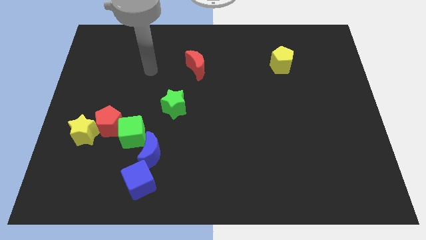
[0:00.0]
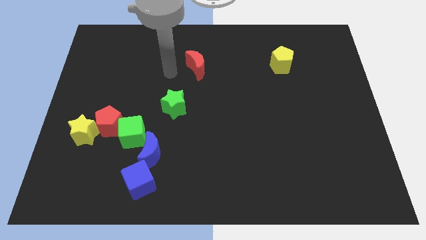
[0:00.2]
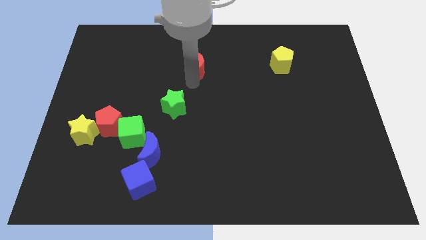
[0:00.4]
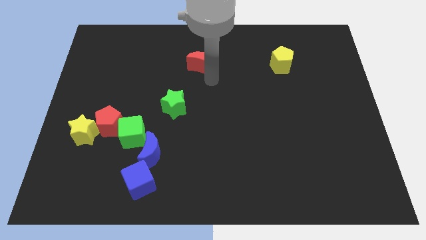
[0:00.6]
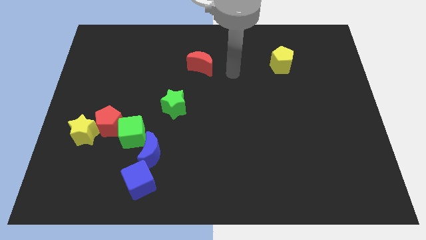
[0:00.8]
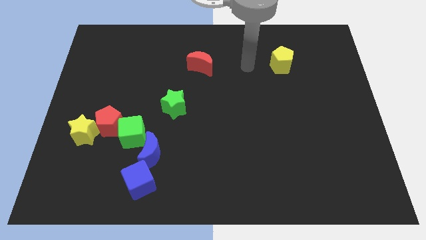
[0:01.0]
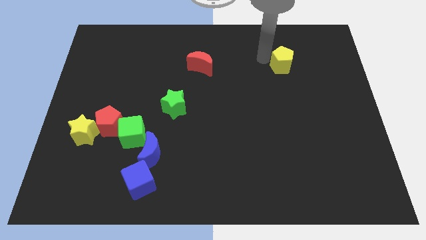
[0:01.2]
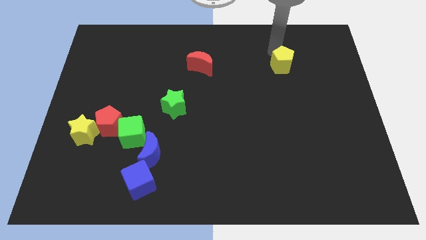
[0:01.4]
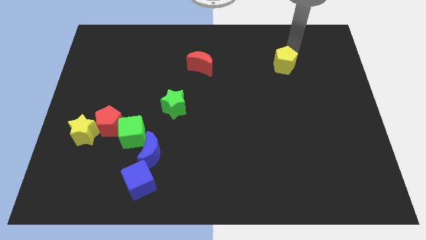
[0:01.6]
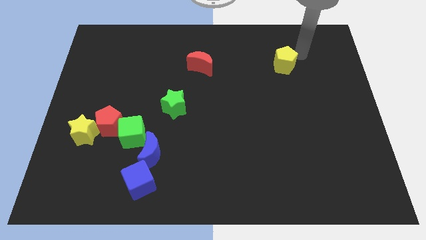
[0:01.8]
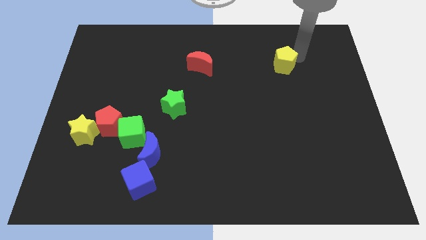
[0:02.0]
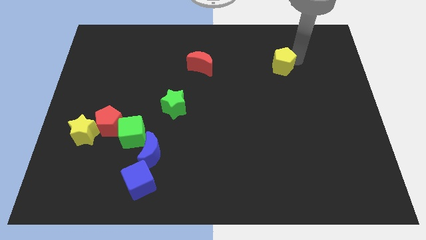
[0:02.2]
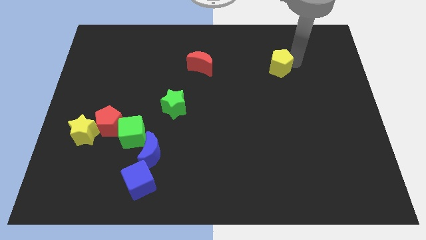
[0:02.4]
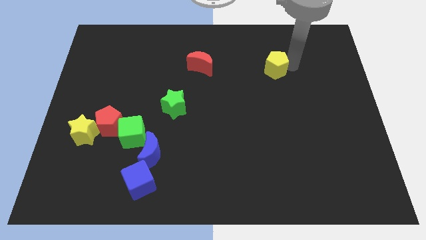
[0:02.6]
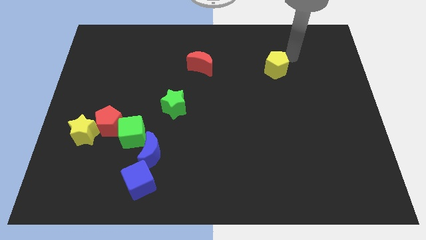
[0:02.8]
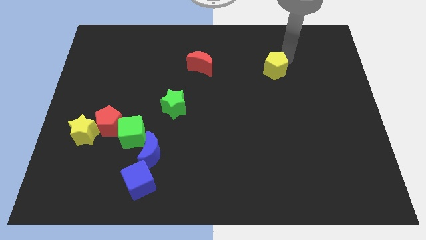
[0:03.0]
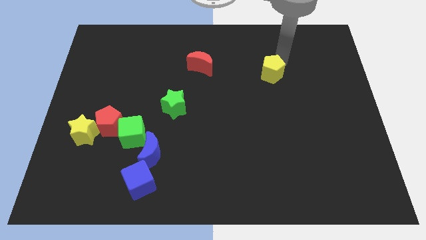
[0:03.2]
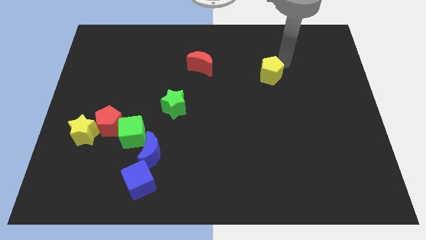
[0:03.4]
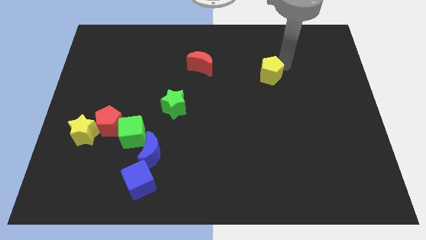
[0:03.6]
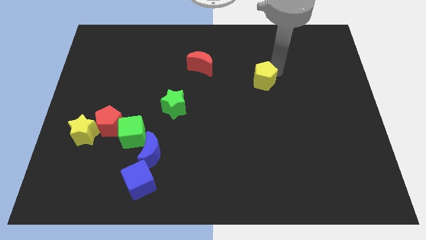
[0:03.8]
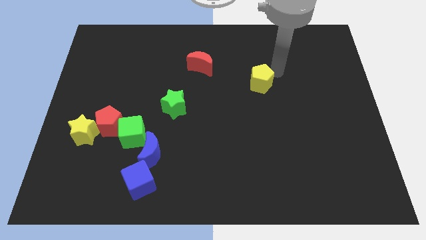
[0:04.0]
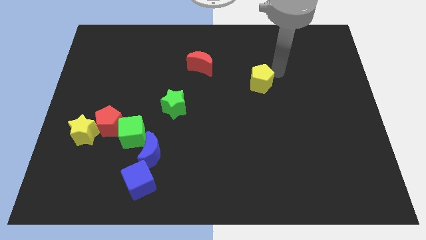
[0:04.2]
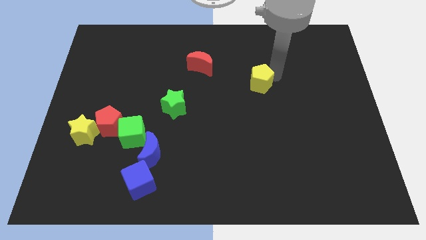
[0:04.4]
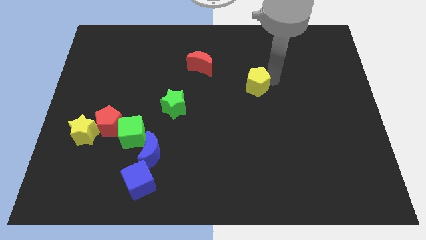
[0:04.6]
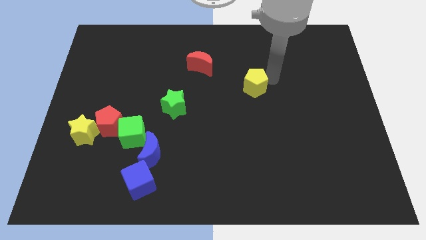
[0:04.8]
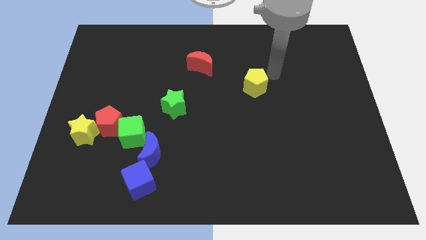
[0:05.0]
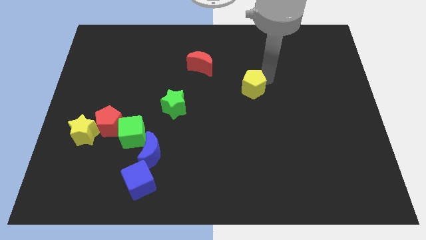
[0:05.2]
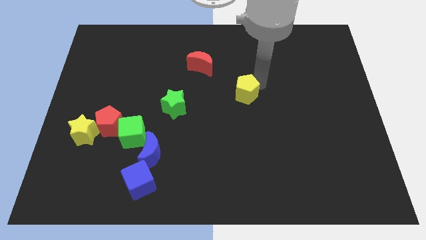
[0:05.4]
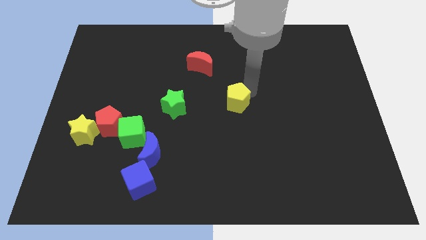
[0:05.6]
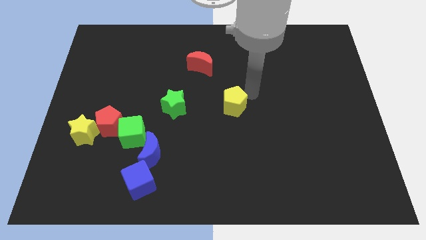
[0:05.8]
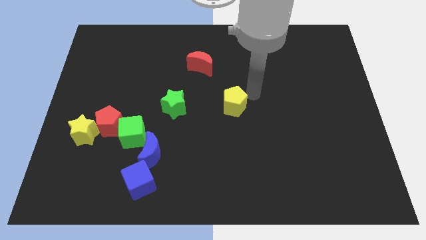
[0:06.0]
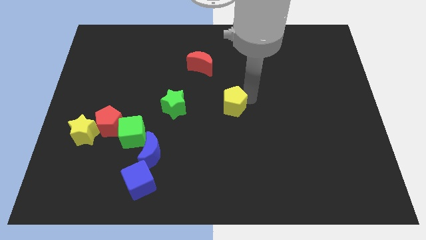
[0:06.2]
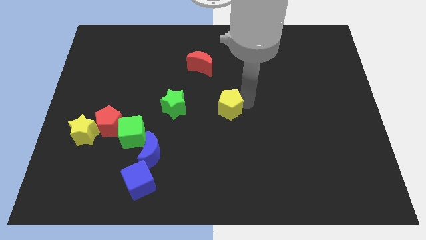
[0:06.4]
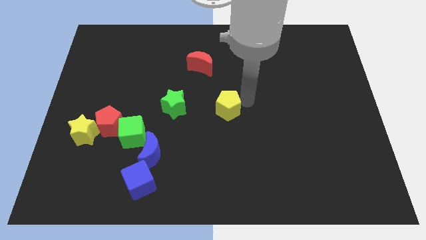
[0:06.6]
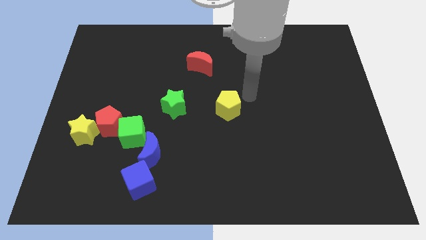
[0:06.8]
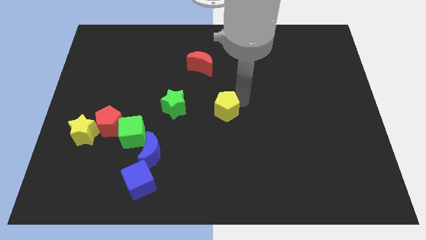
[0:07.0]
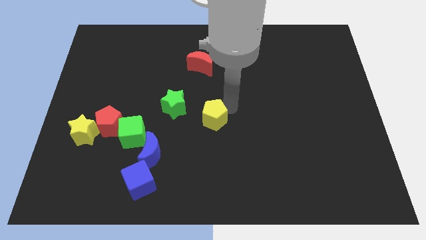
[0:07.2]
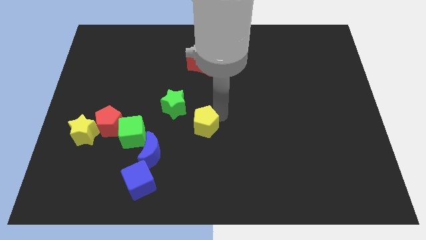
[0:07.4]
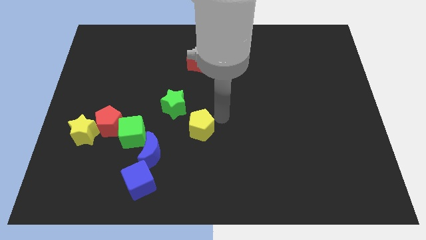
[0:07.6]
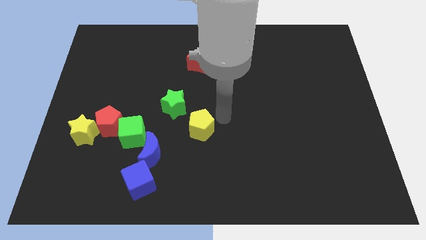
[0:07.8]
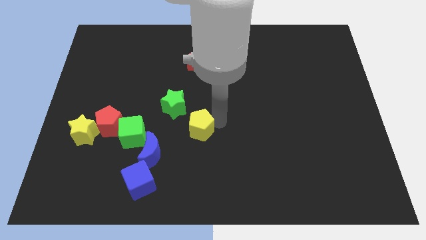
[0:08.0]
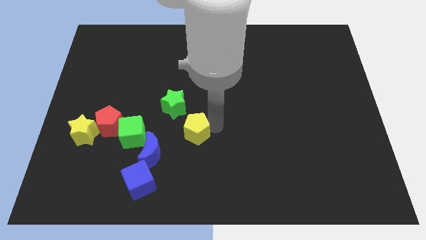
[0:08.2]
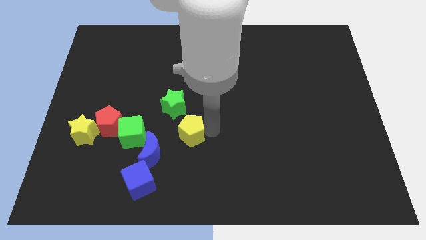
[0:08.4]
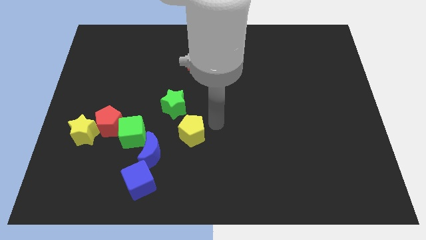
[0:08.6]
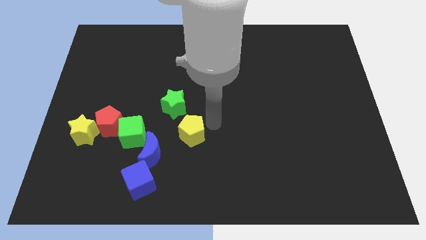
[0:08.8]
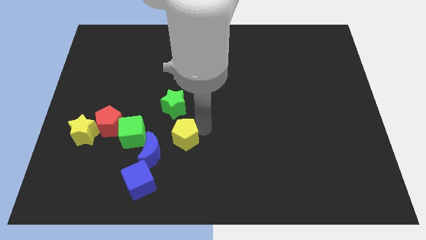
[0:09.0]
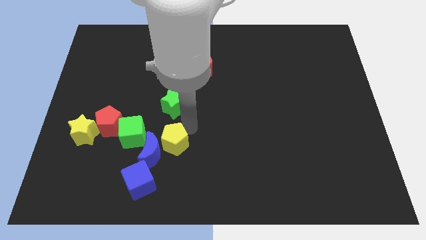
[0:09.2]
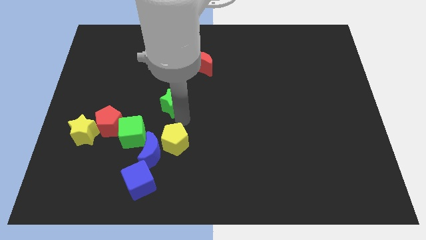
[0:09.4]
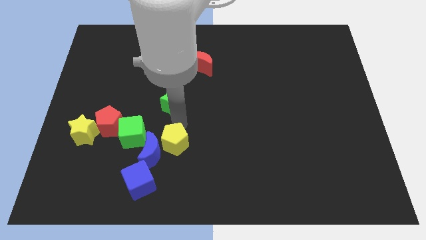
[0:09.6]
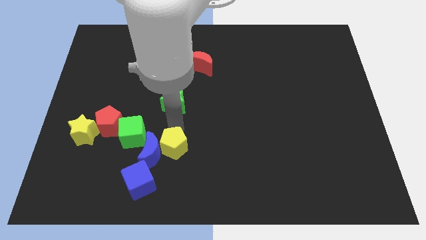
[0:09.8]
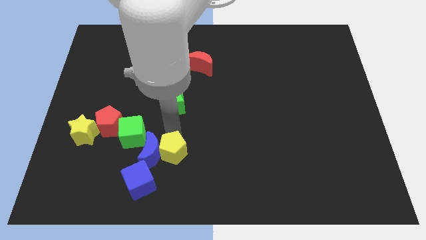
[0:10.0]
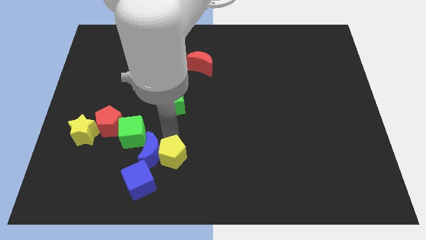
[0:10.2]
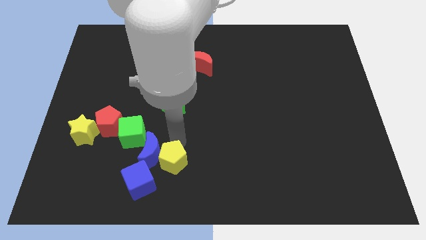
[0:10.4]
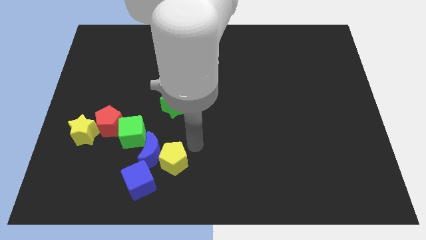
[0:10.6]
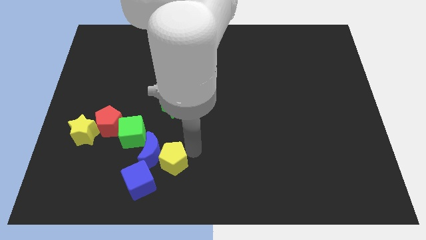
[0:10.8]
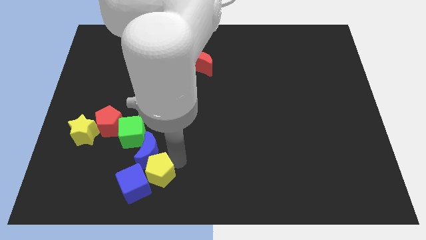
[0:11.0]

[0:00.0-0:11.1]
move the yellow pentagon towards the blue cube
